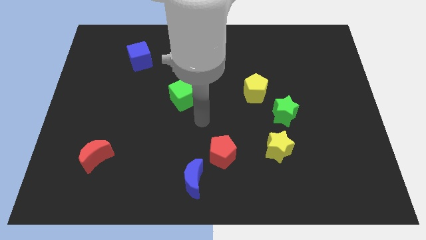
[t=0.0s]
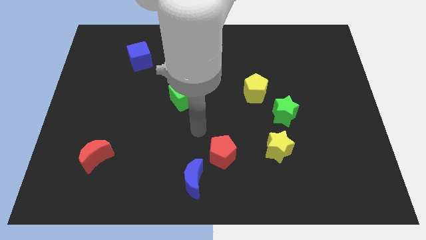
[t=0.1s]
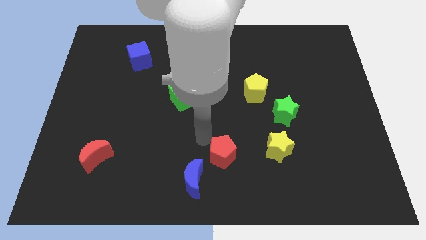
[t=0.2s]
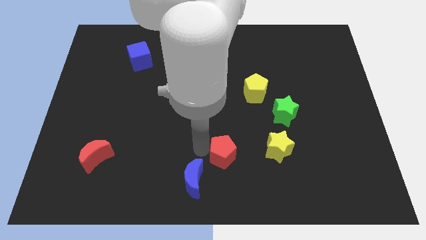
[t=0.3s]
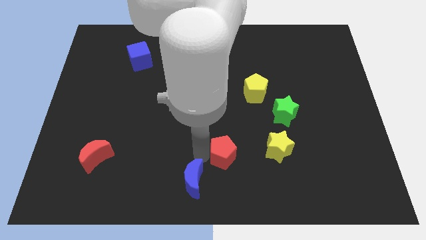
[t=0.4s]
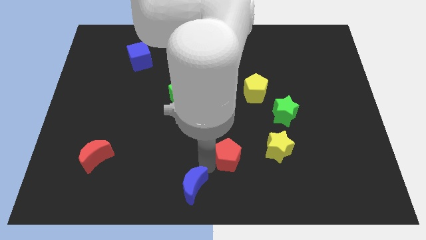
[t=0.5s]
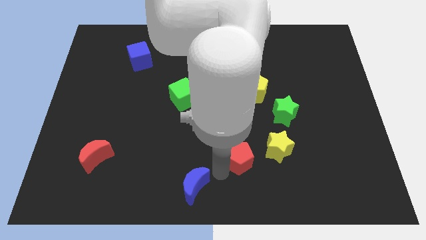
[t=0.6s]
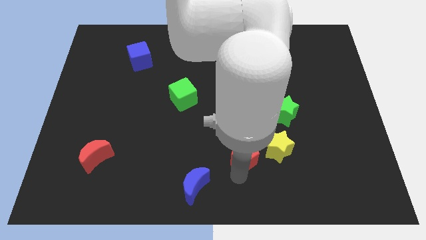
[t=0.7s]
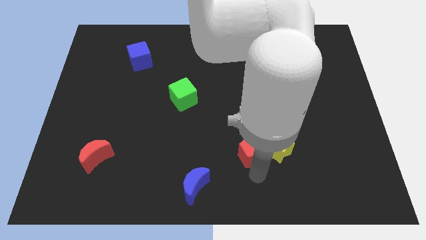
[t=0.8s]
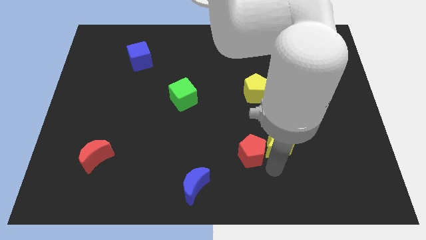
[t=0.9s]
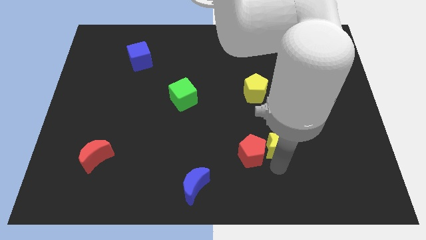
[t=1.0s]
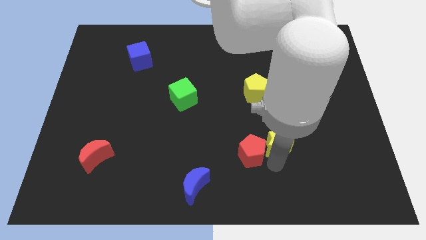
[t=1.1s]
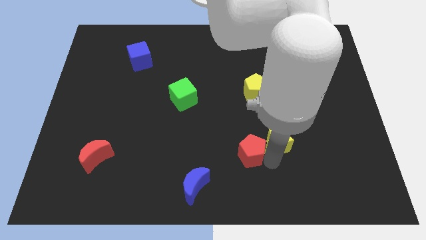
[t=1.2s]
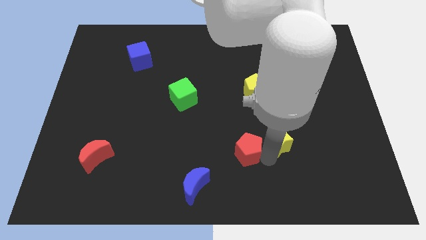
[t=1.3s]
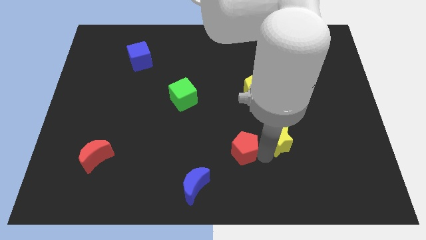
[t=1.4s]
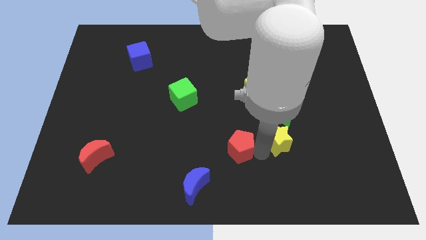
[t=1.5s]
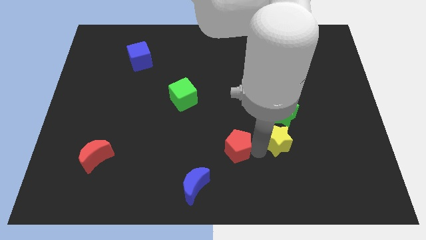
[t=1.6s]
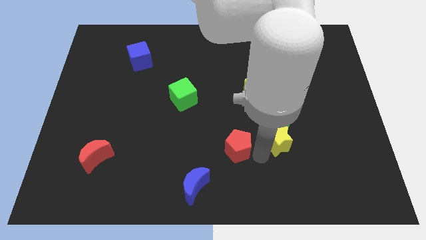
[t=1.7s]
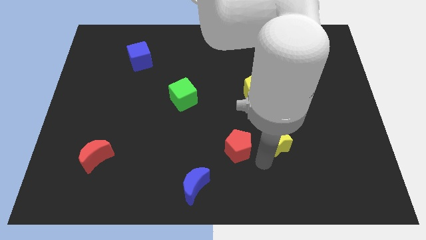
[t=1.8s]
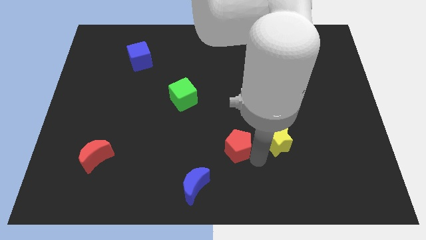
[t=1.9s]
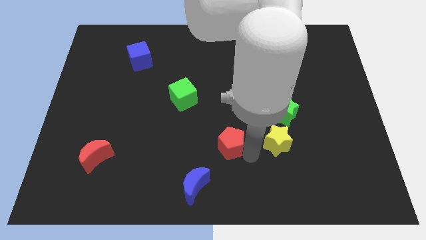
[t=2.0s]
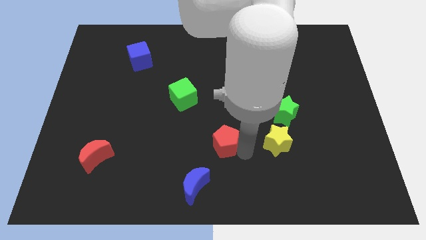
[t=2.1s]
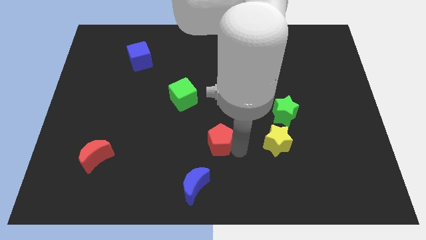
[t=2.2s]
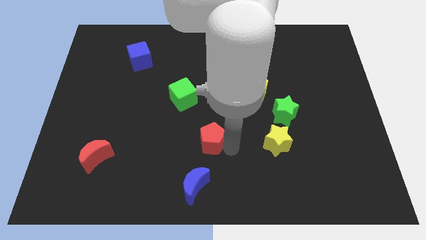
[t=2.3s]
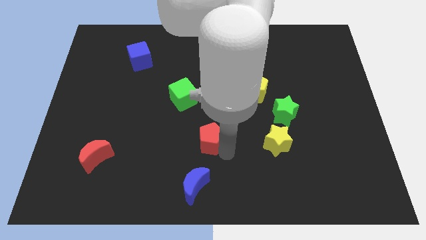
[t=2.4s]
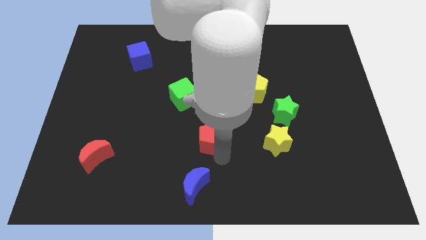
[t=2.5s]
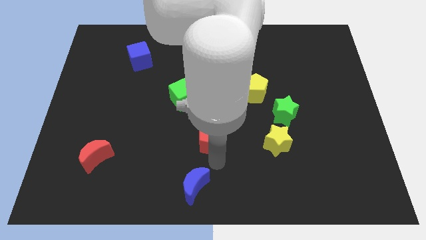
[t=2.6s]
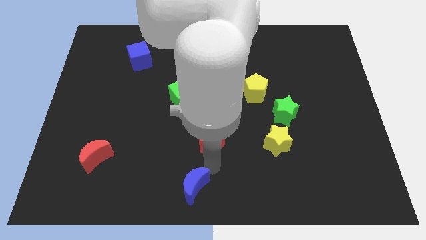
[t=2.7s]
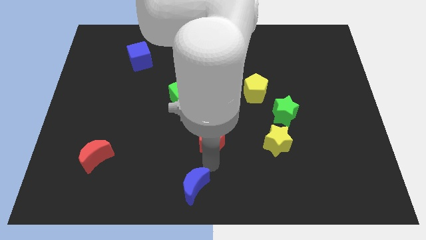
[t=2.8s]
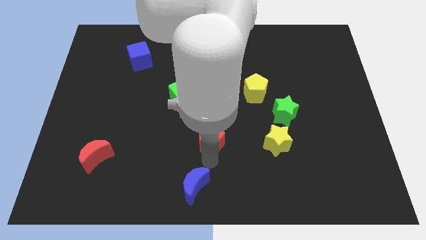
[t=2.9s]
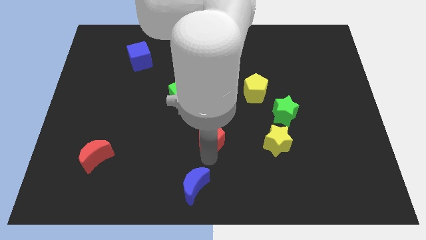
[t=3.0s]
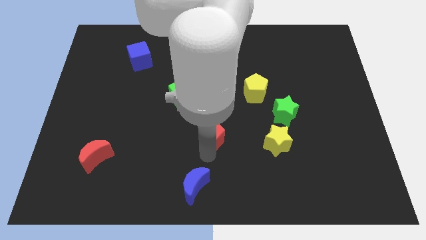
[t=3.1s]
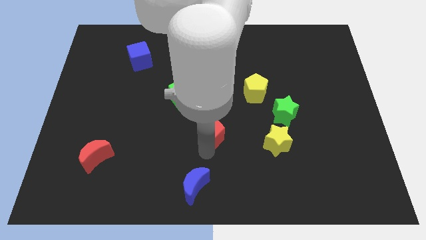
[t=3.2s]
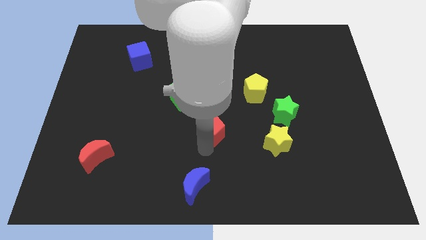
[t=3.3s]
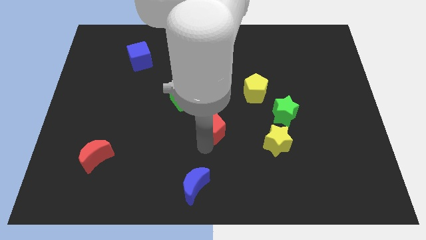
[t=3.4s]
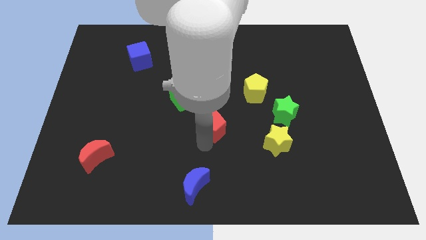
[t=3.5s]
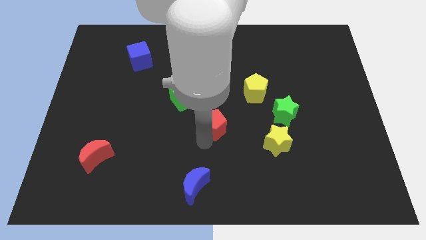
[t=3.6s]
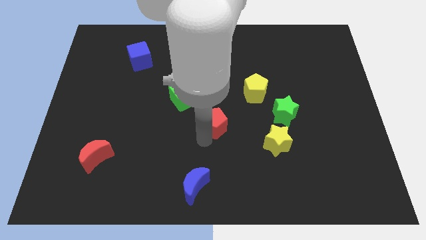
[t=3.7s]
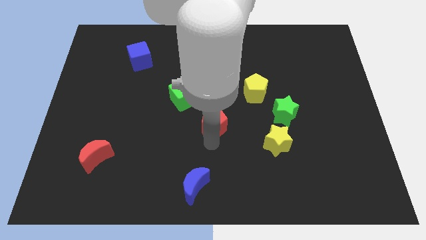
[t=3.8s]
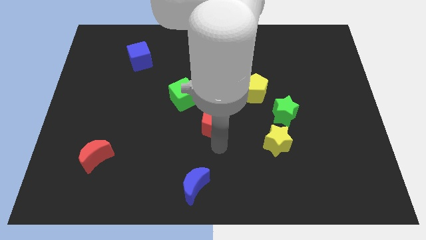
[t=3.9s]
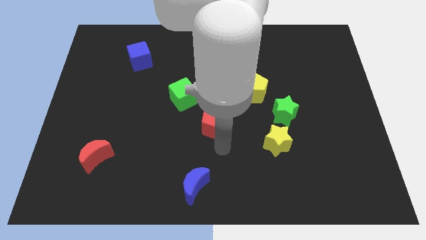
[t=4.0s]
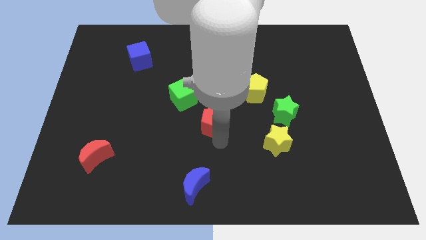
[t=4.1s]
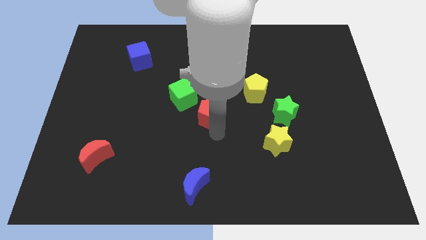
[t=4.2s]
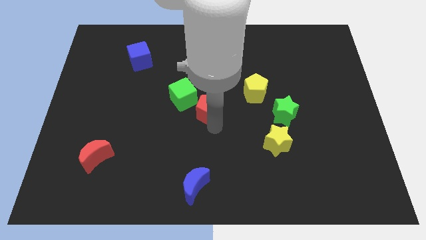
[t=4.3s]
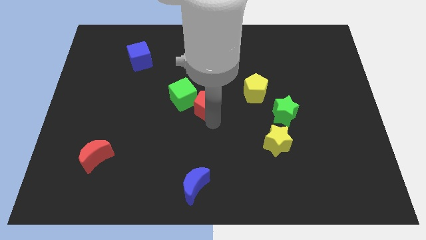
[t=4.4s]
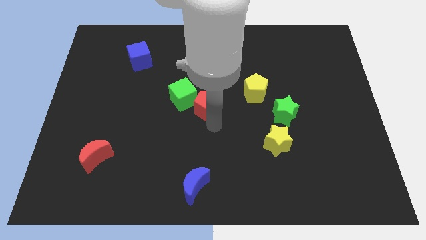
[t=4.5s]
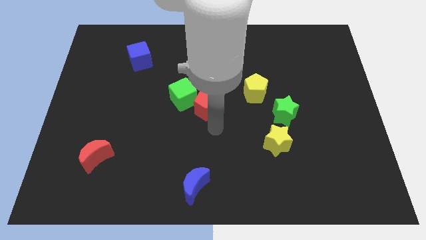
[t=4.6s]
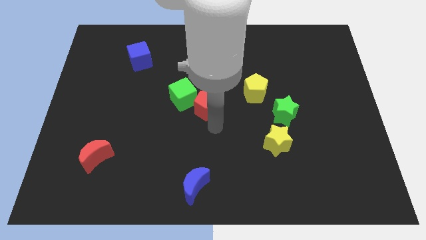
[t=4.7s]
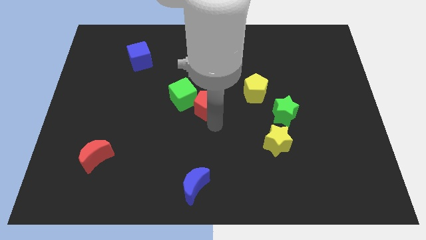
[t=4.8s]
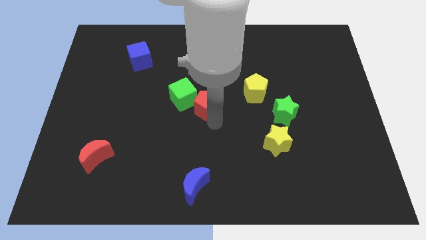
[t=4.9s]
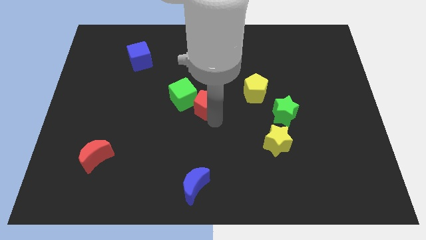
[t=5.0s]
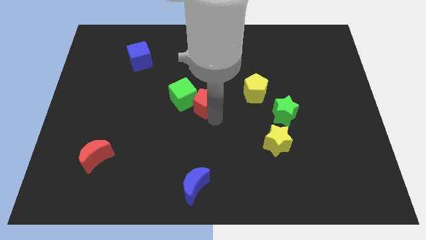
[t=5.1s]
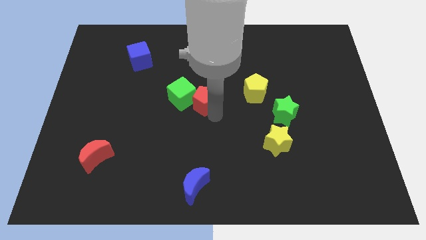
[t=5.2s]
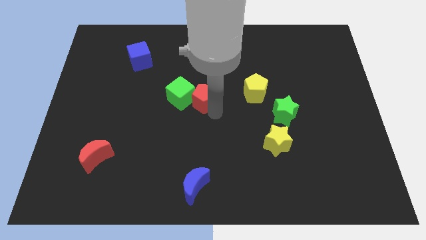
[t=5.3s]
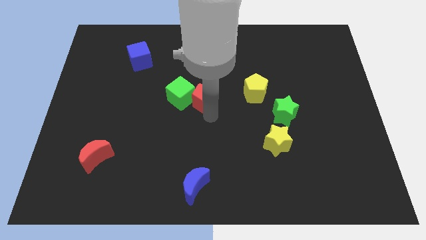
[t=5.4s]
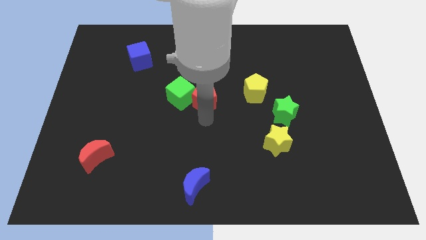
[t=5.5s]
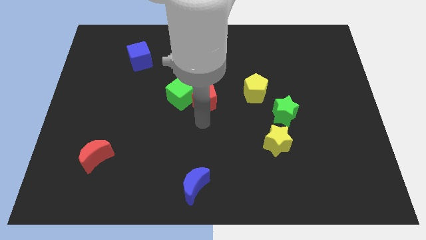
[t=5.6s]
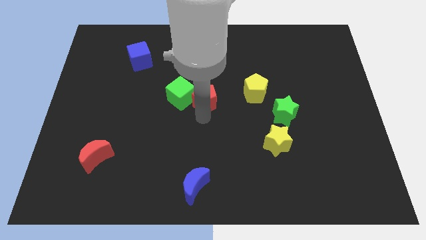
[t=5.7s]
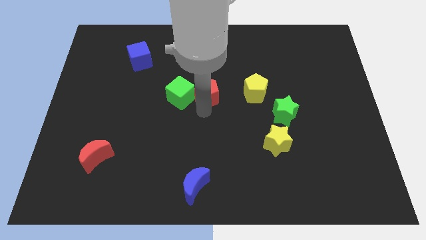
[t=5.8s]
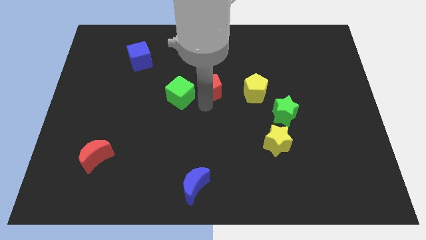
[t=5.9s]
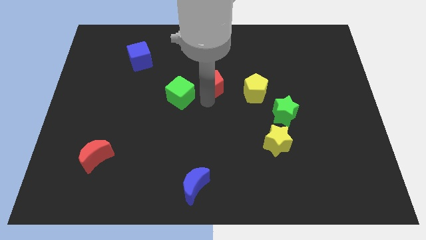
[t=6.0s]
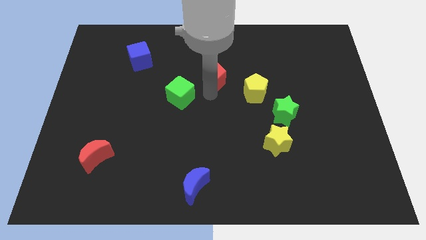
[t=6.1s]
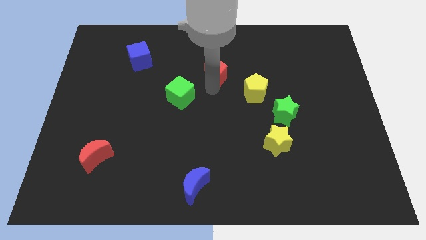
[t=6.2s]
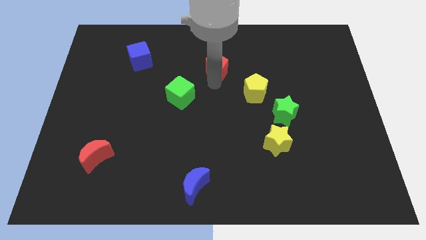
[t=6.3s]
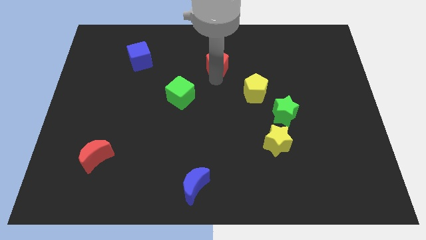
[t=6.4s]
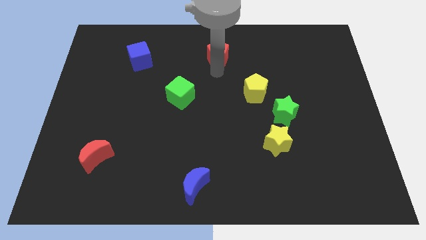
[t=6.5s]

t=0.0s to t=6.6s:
slide the red pentagon to the towards your base
